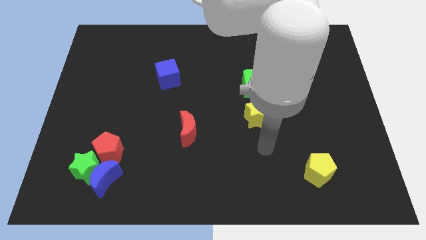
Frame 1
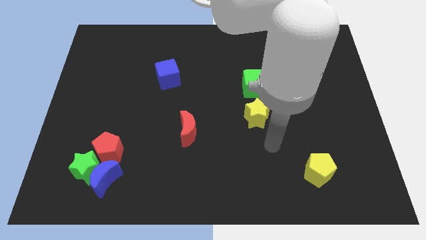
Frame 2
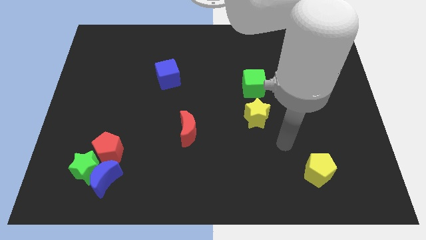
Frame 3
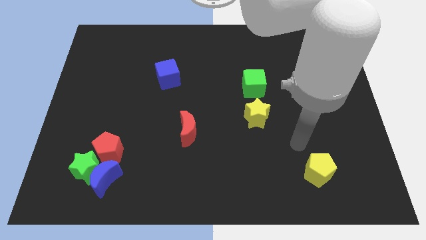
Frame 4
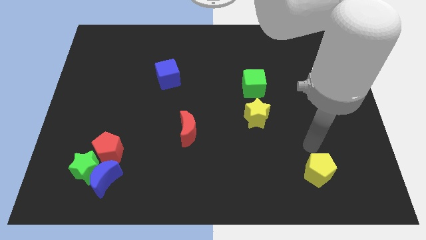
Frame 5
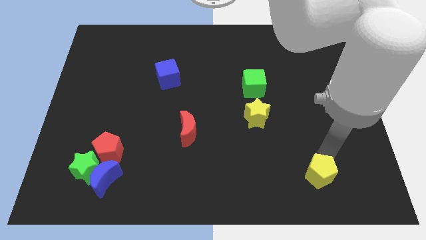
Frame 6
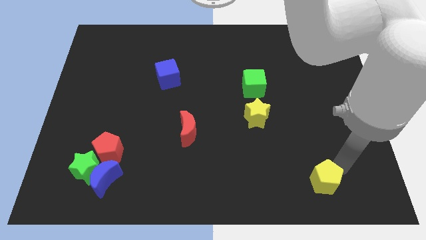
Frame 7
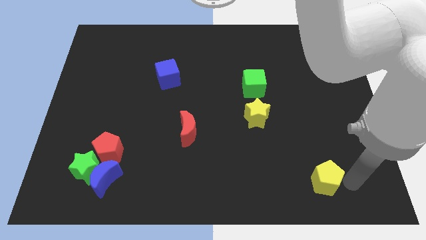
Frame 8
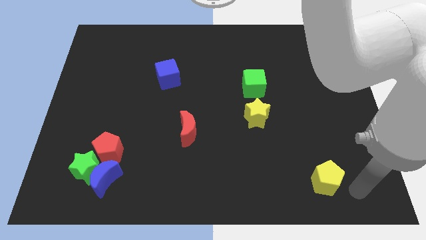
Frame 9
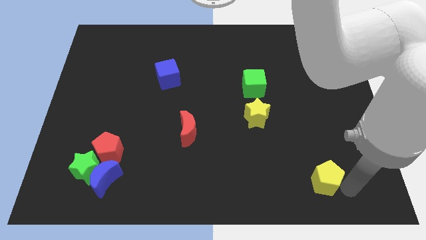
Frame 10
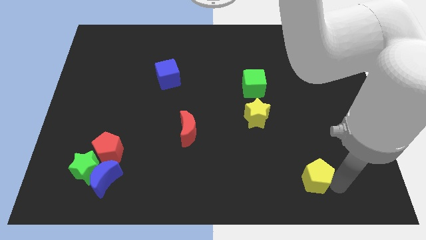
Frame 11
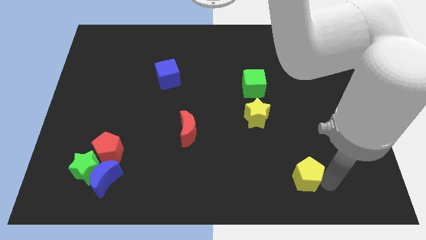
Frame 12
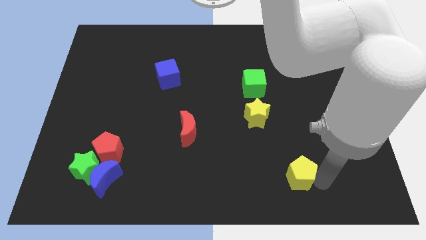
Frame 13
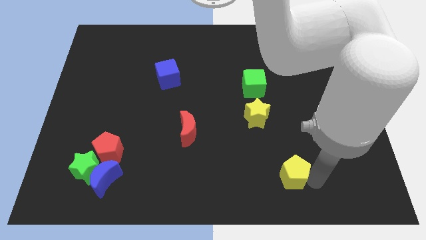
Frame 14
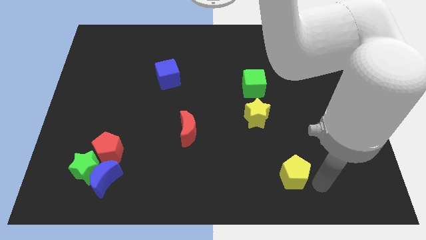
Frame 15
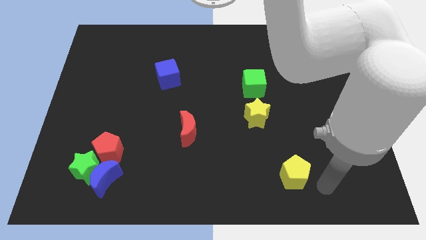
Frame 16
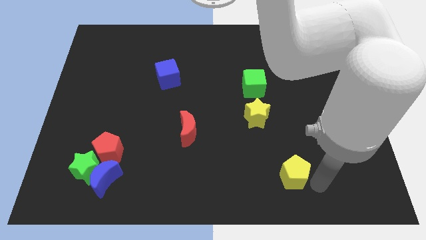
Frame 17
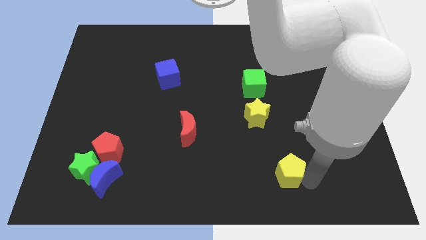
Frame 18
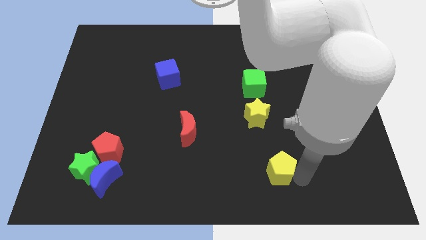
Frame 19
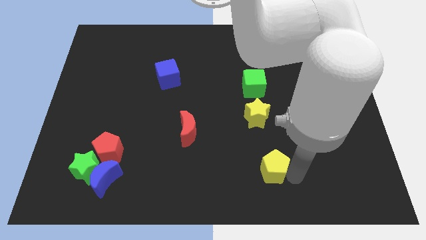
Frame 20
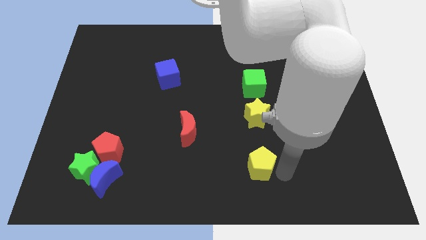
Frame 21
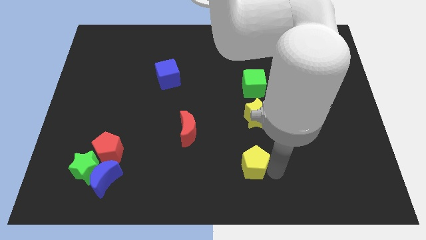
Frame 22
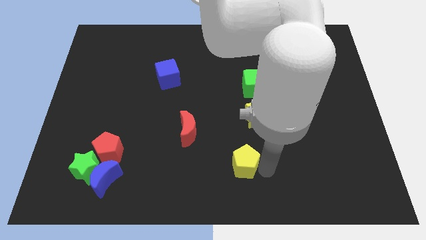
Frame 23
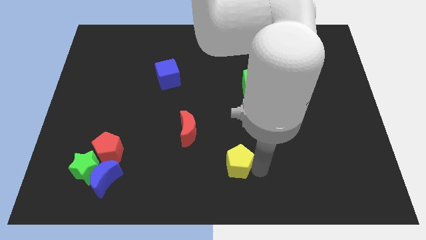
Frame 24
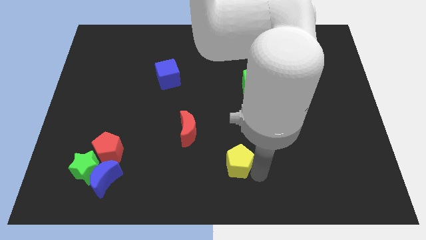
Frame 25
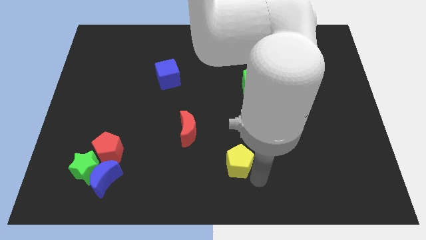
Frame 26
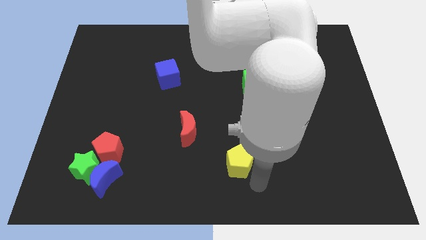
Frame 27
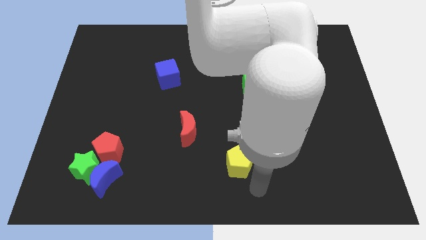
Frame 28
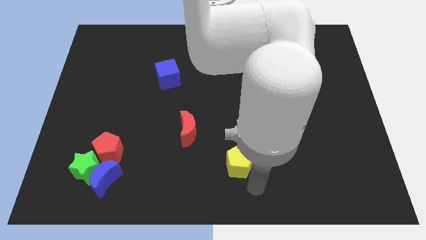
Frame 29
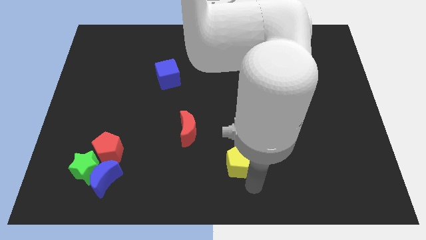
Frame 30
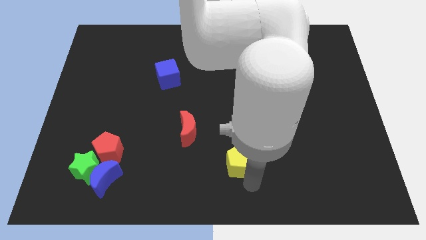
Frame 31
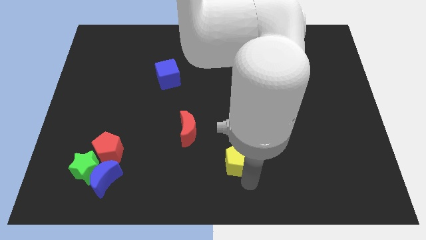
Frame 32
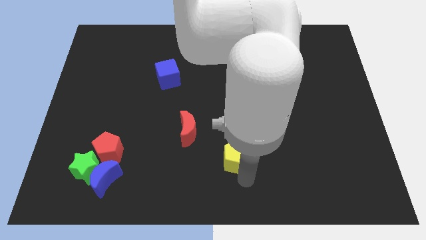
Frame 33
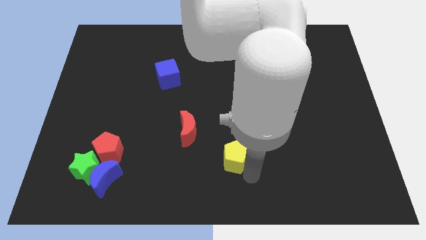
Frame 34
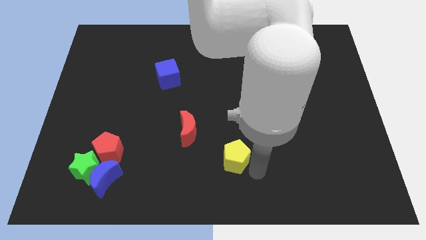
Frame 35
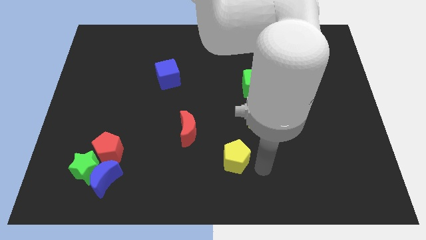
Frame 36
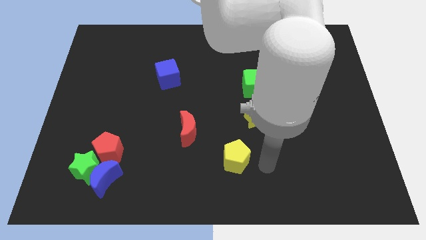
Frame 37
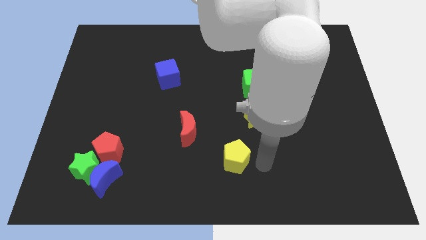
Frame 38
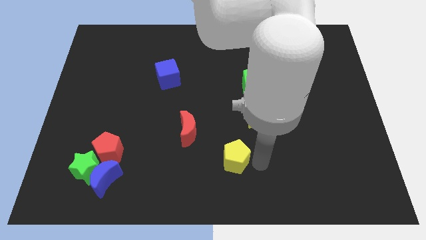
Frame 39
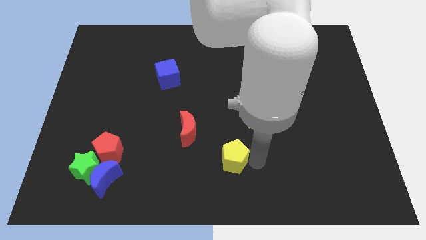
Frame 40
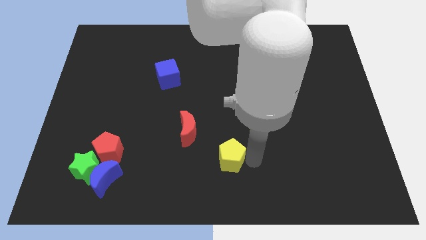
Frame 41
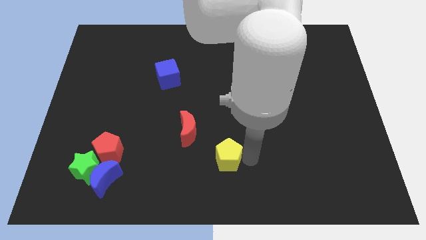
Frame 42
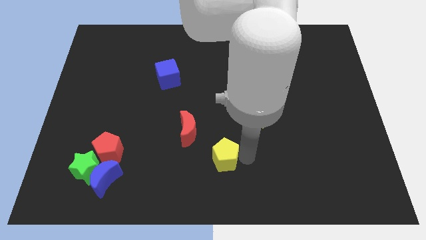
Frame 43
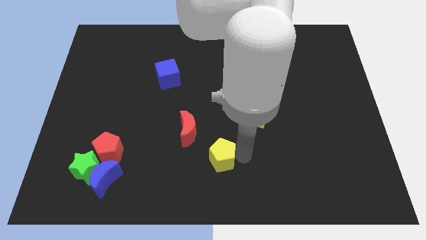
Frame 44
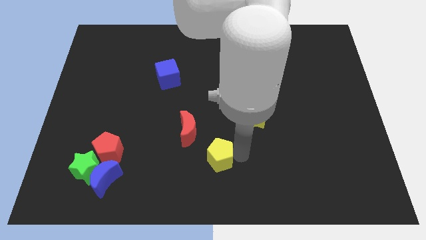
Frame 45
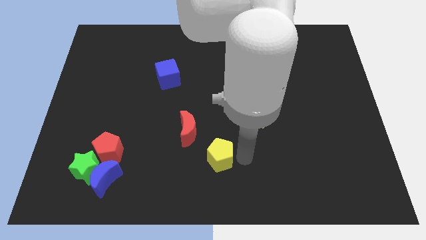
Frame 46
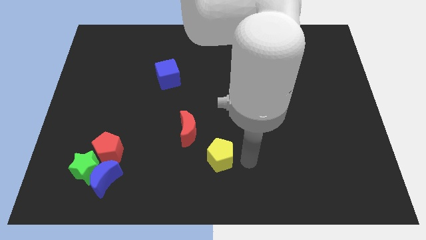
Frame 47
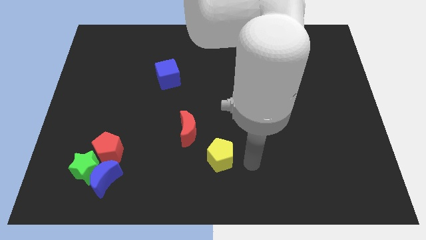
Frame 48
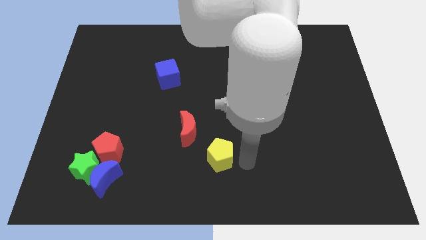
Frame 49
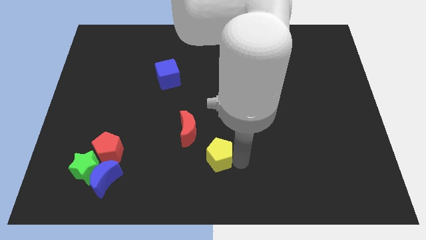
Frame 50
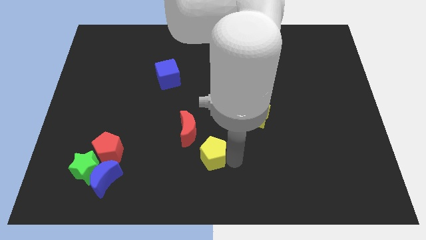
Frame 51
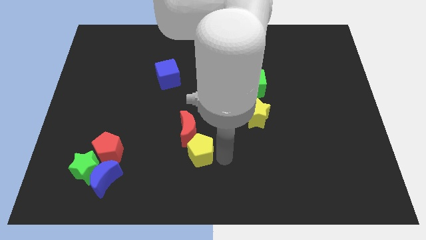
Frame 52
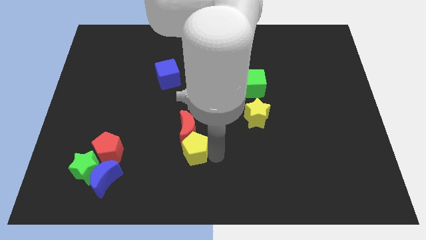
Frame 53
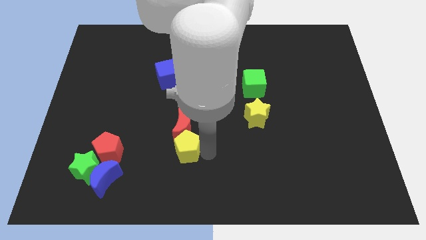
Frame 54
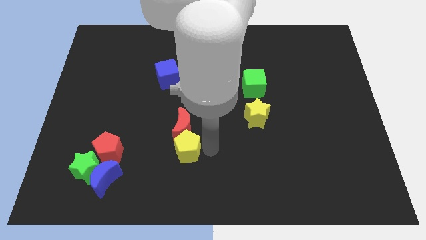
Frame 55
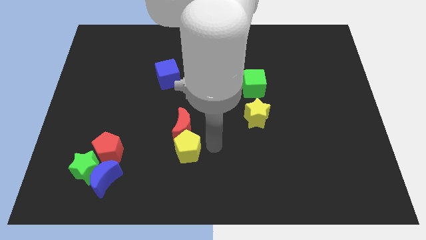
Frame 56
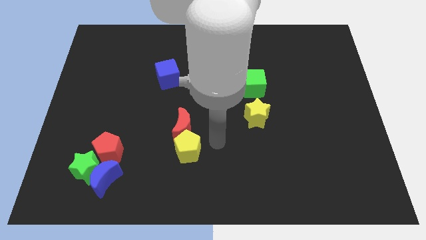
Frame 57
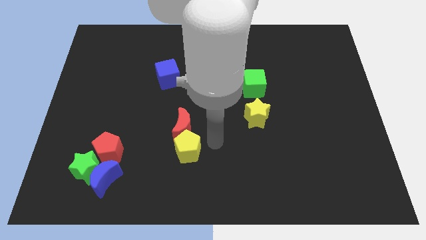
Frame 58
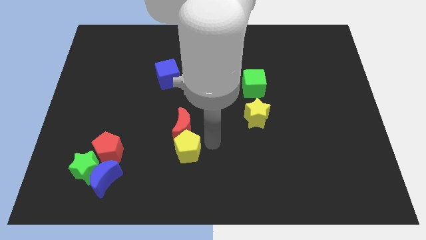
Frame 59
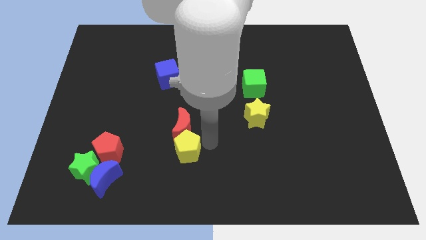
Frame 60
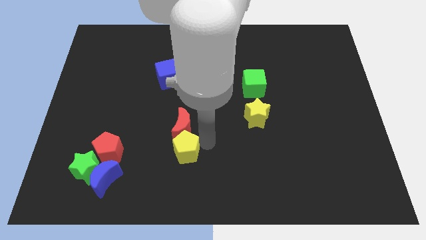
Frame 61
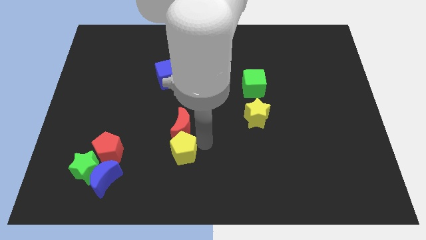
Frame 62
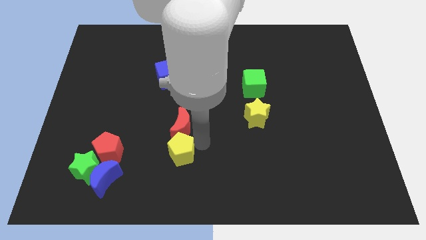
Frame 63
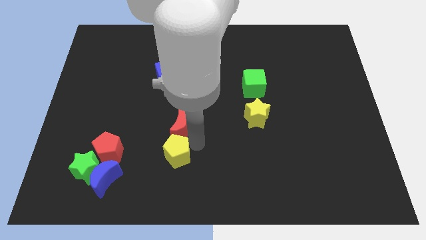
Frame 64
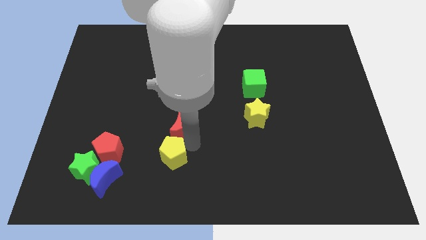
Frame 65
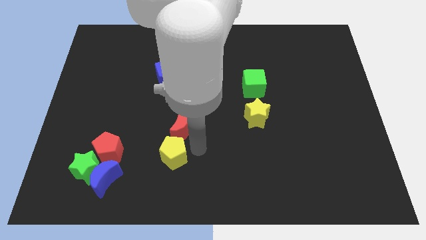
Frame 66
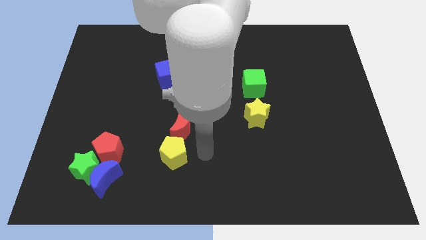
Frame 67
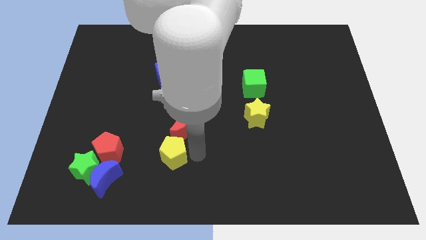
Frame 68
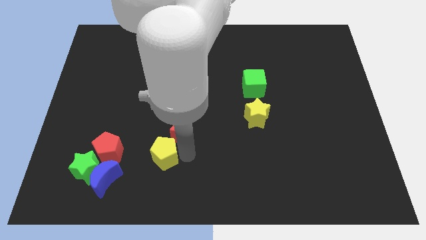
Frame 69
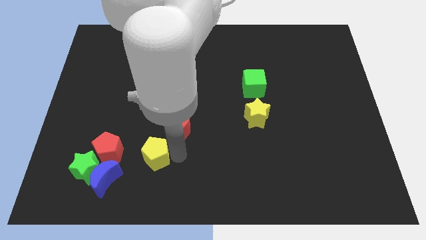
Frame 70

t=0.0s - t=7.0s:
slide the yellow pentagon to the top right of the blue moon

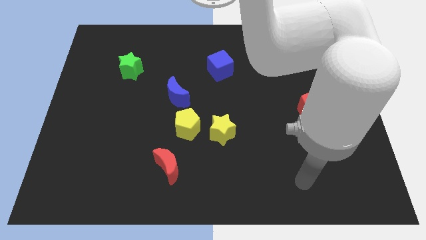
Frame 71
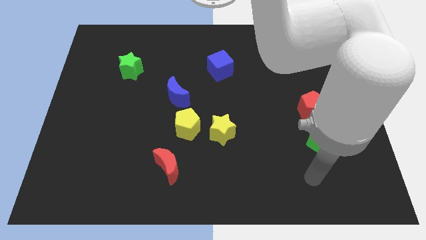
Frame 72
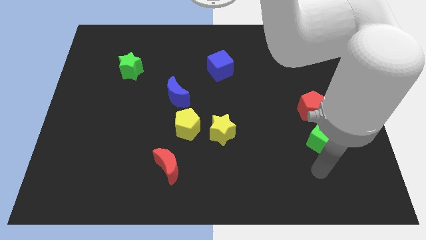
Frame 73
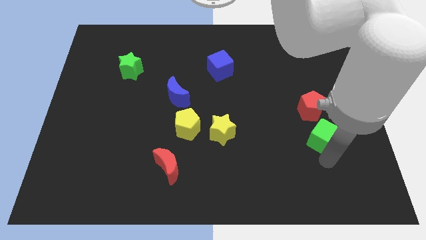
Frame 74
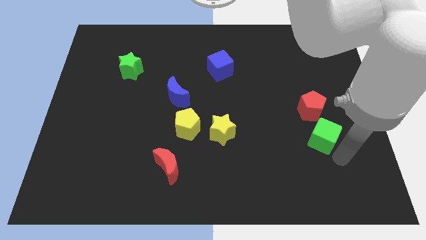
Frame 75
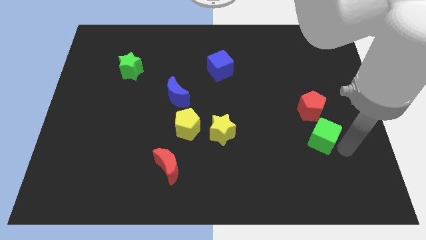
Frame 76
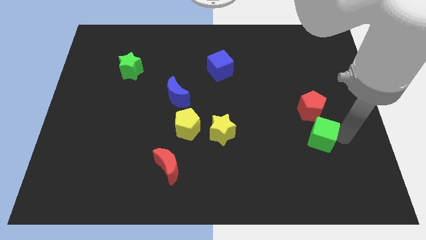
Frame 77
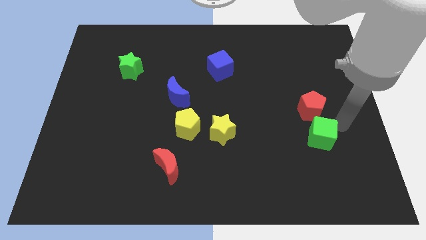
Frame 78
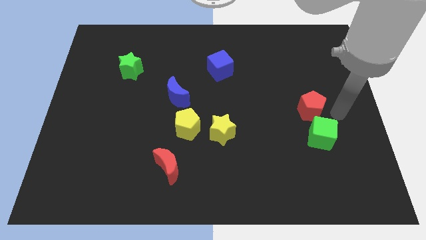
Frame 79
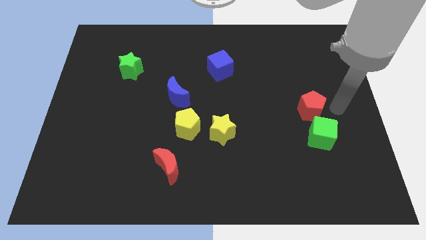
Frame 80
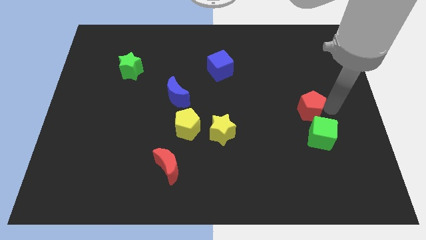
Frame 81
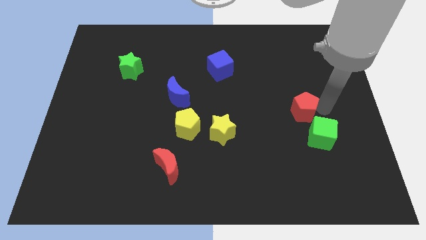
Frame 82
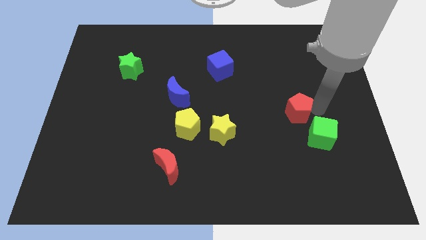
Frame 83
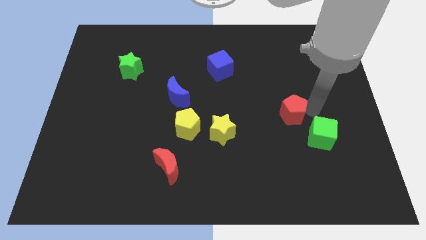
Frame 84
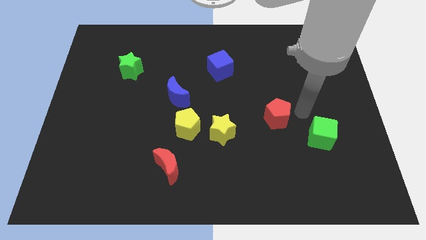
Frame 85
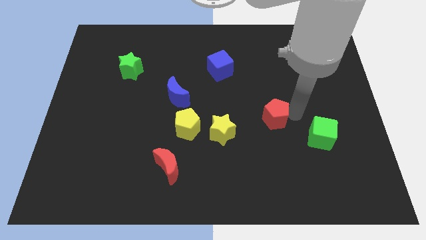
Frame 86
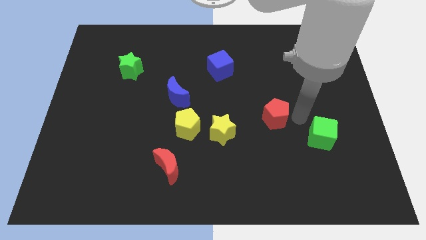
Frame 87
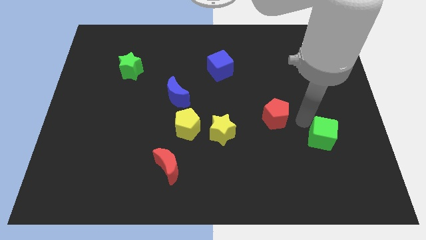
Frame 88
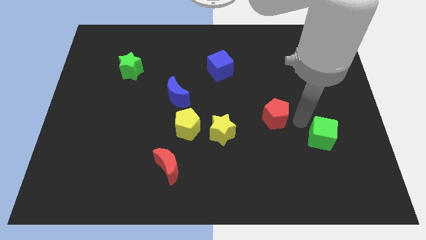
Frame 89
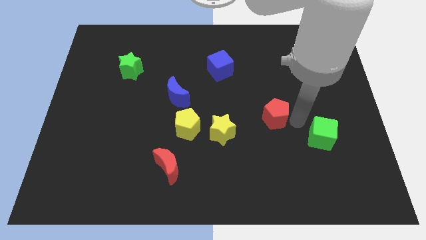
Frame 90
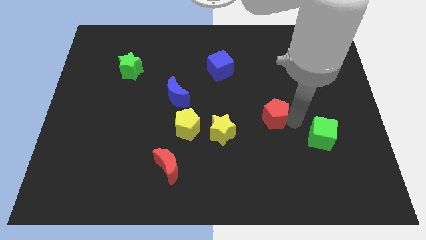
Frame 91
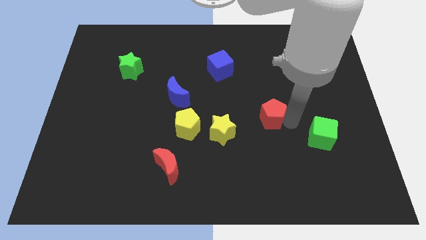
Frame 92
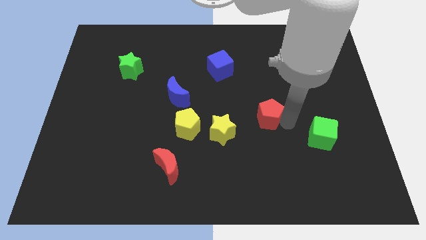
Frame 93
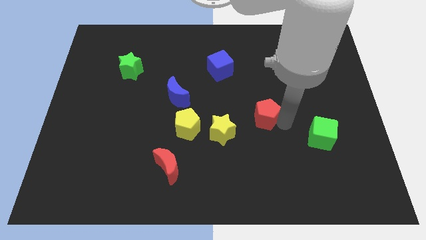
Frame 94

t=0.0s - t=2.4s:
move the red pentagon diagonally up and to the right of the yellow star
